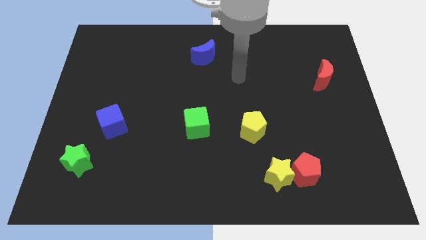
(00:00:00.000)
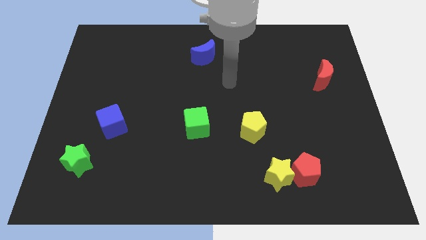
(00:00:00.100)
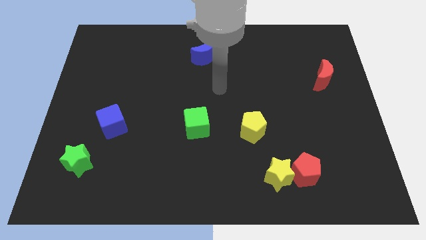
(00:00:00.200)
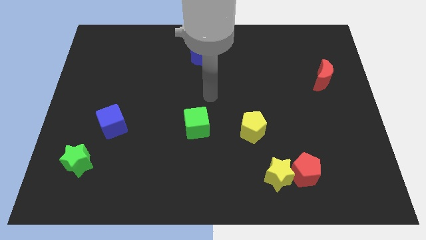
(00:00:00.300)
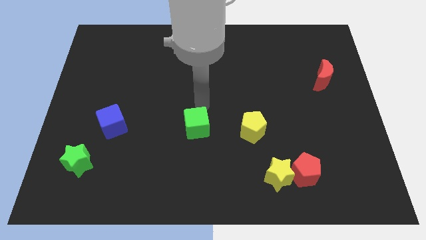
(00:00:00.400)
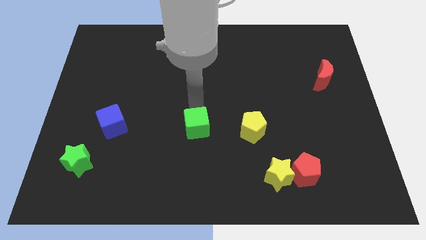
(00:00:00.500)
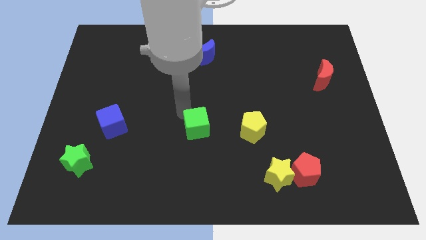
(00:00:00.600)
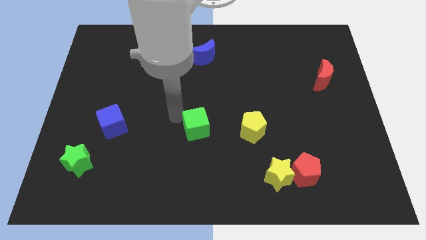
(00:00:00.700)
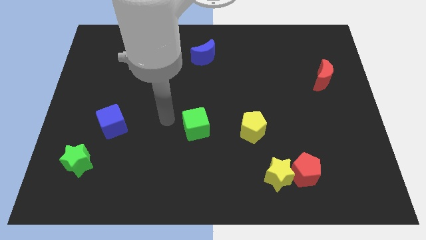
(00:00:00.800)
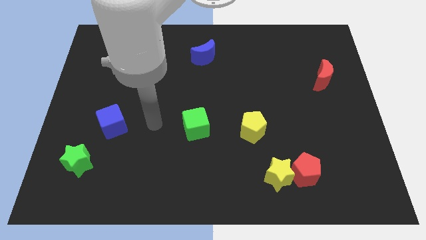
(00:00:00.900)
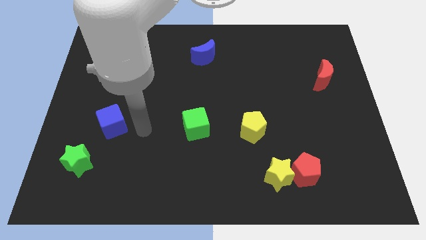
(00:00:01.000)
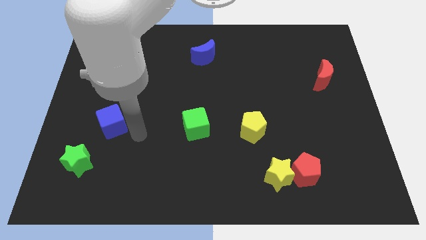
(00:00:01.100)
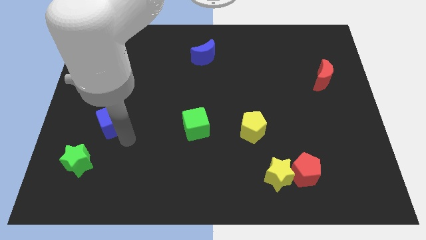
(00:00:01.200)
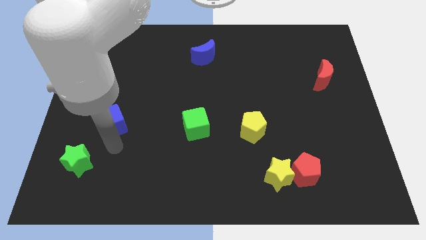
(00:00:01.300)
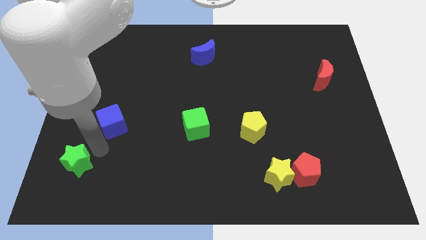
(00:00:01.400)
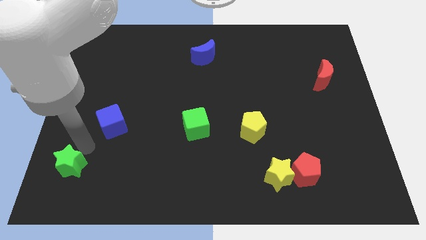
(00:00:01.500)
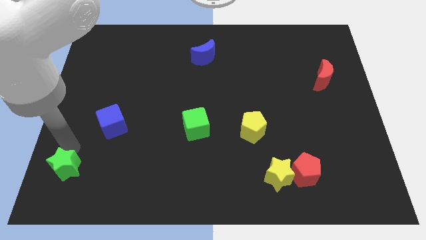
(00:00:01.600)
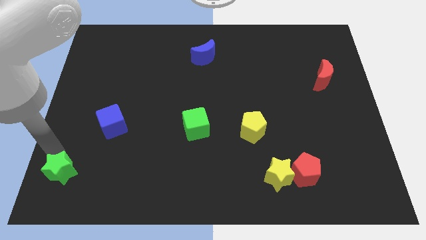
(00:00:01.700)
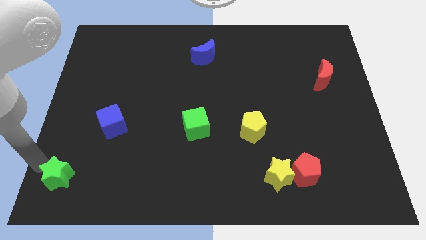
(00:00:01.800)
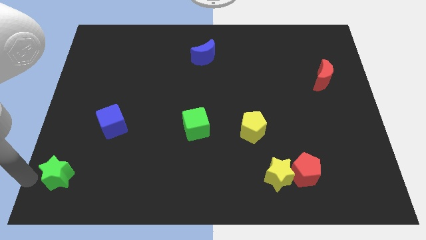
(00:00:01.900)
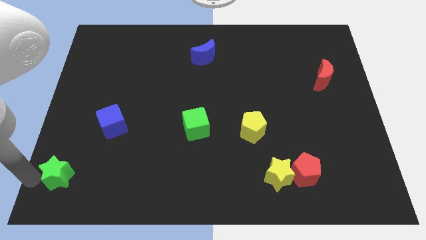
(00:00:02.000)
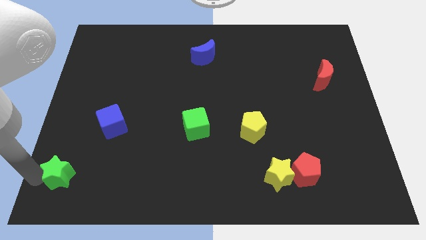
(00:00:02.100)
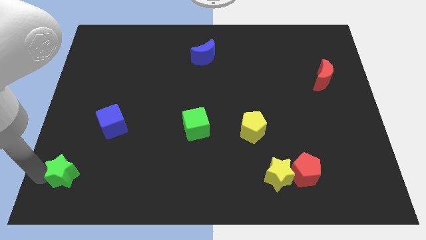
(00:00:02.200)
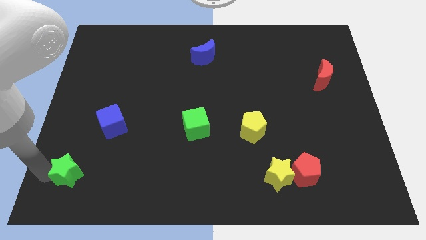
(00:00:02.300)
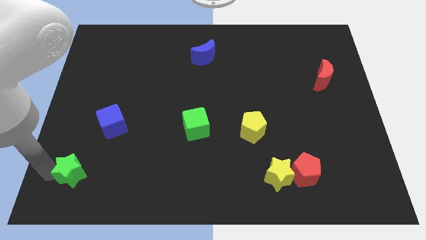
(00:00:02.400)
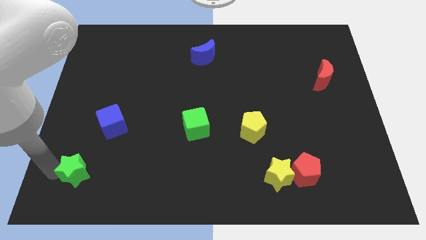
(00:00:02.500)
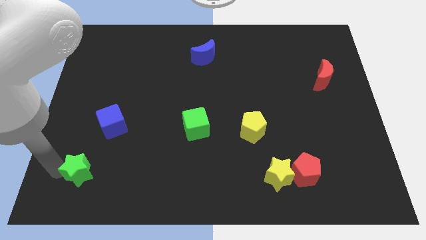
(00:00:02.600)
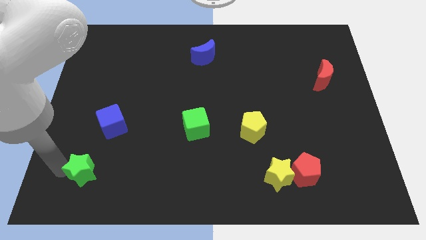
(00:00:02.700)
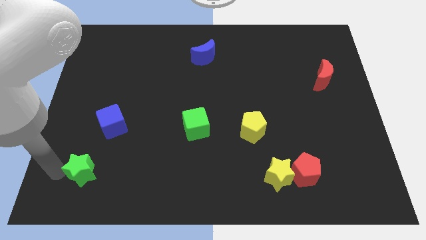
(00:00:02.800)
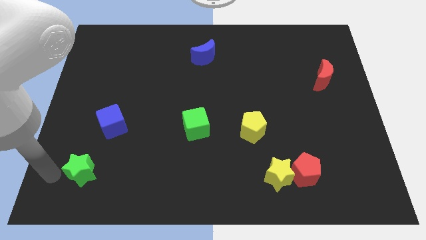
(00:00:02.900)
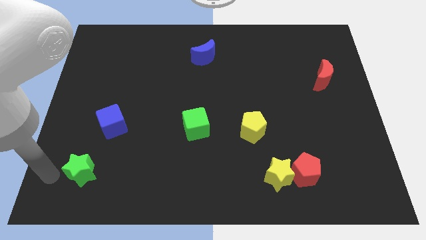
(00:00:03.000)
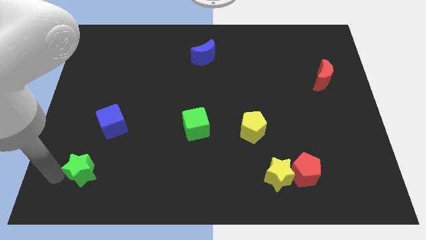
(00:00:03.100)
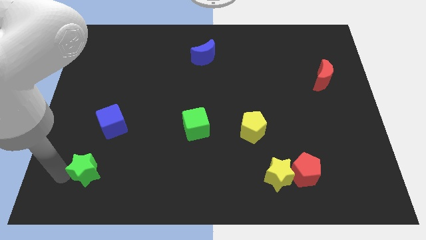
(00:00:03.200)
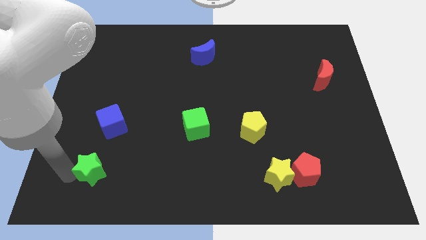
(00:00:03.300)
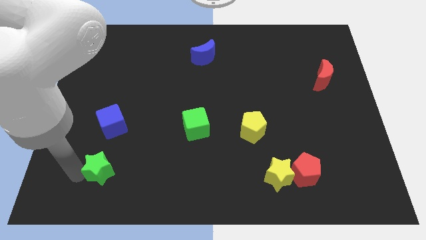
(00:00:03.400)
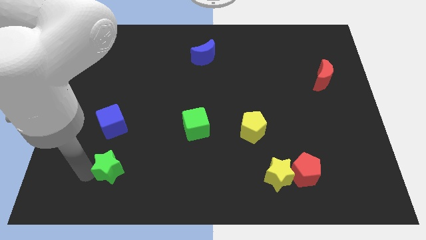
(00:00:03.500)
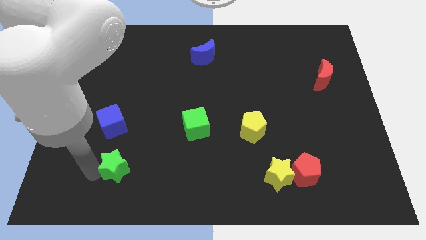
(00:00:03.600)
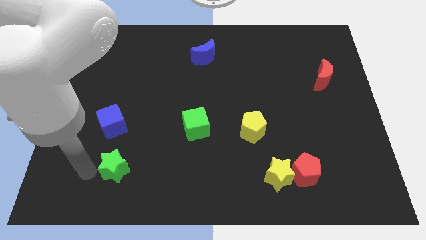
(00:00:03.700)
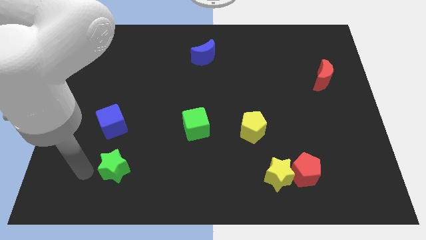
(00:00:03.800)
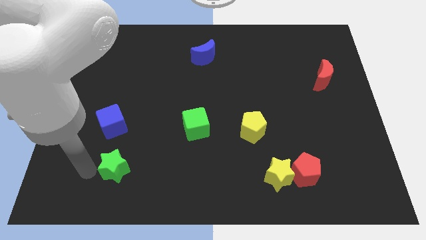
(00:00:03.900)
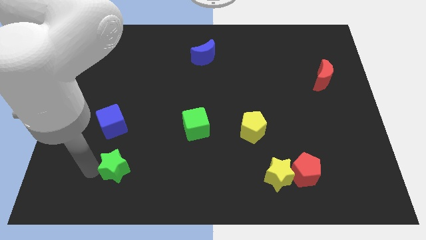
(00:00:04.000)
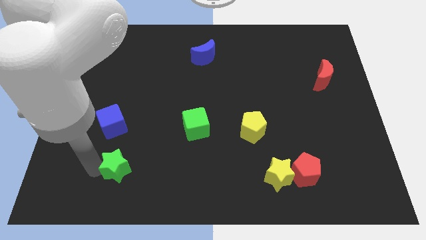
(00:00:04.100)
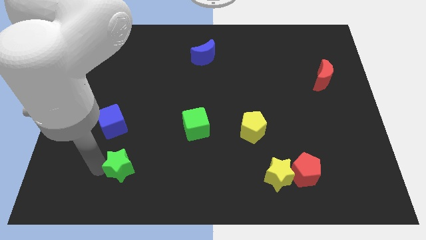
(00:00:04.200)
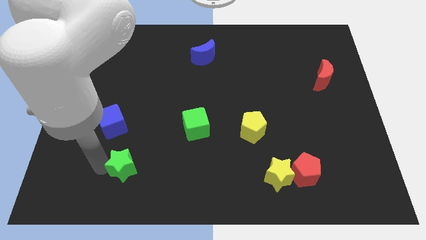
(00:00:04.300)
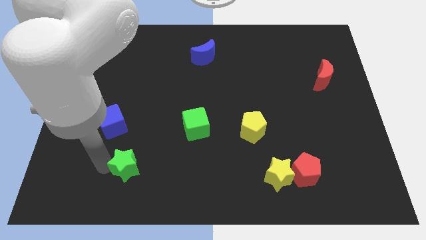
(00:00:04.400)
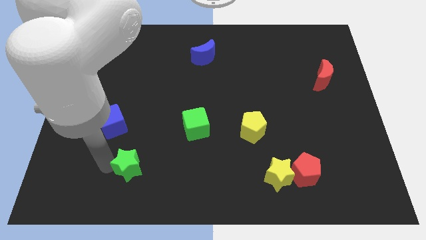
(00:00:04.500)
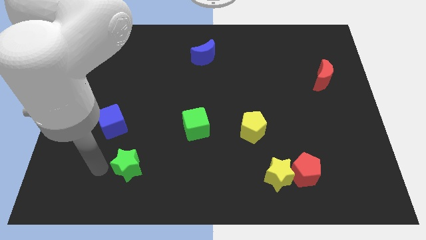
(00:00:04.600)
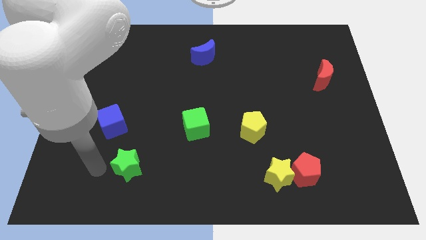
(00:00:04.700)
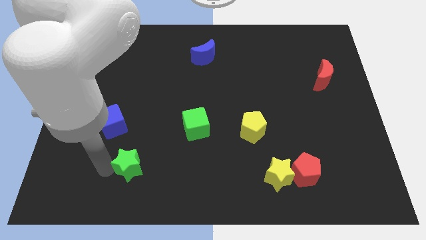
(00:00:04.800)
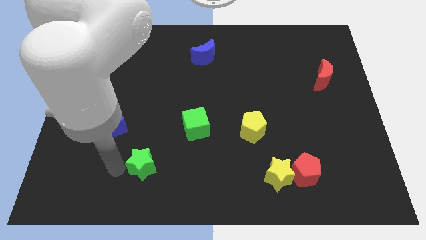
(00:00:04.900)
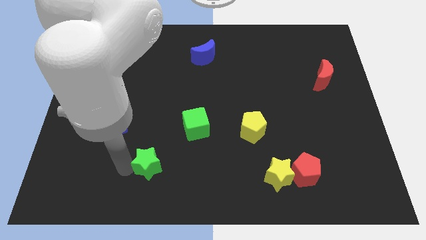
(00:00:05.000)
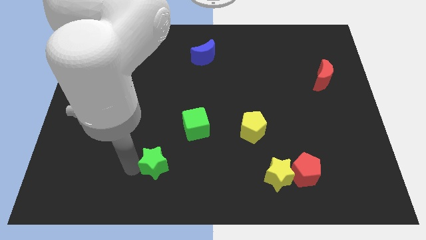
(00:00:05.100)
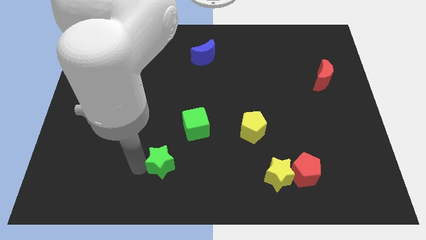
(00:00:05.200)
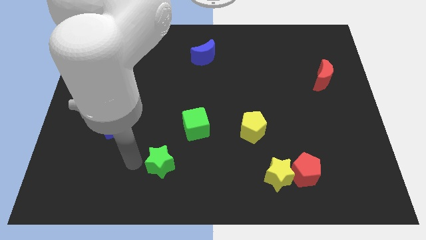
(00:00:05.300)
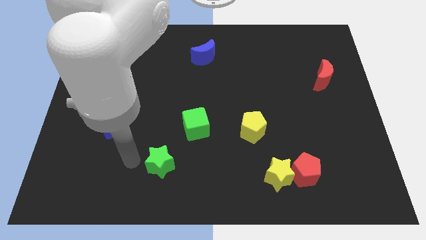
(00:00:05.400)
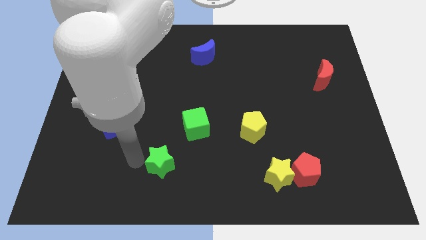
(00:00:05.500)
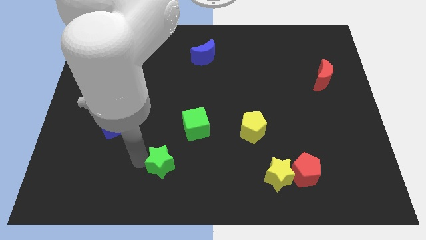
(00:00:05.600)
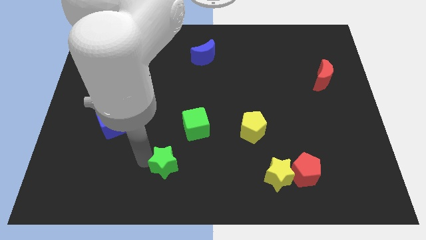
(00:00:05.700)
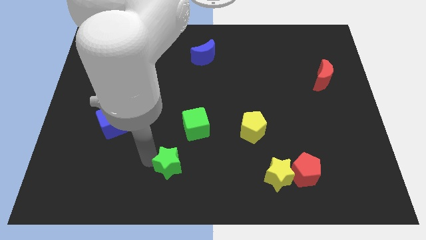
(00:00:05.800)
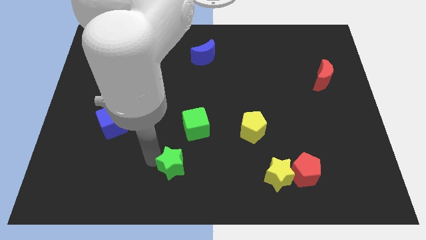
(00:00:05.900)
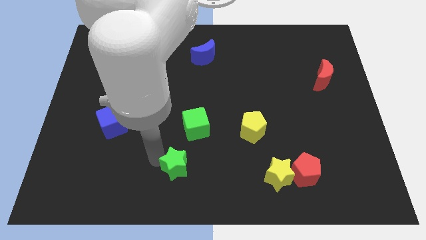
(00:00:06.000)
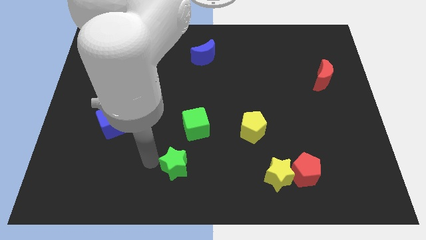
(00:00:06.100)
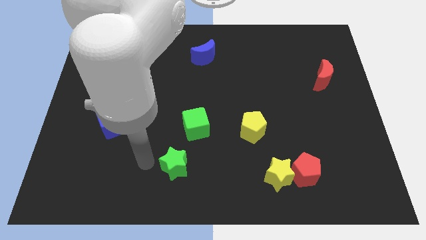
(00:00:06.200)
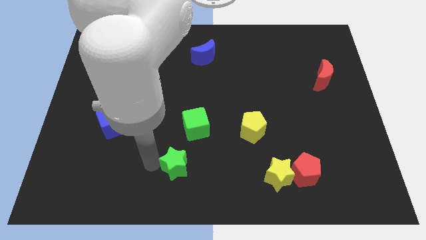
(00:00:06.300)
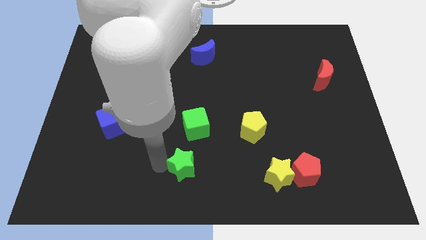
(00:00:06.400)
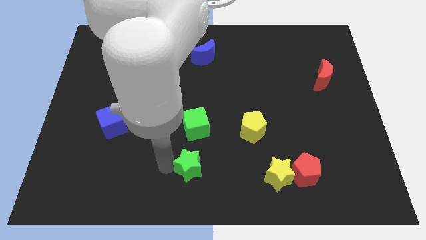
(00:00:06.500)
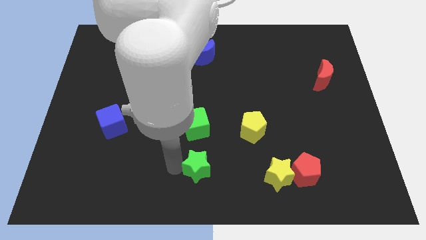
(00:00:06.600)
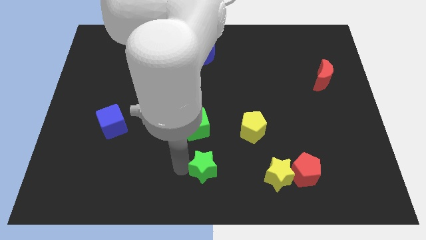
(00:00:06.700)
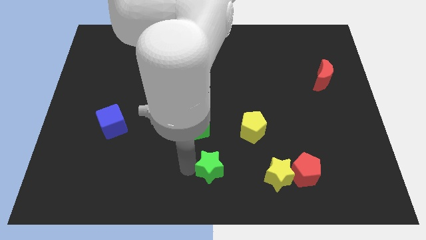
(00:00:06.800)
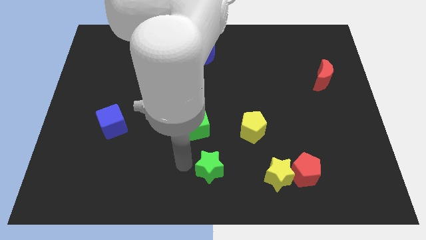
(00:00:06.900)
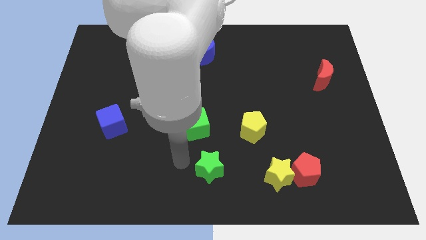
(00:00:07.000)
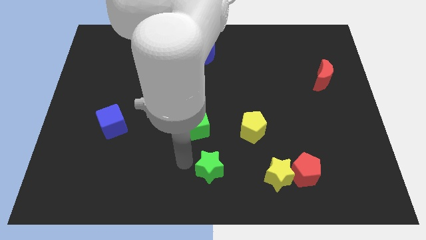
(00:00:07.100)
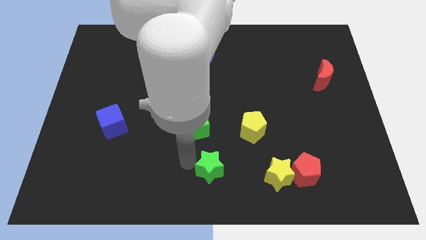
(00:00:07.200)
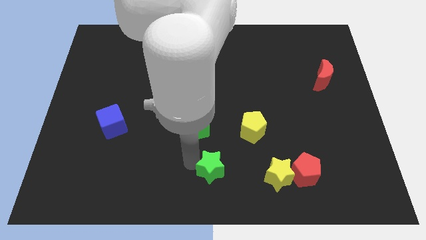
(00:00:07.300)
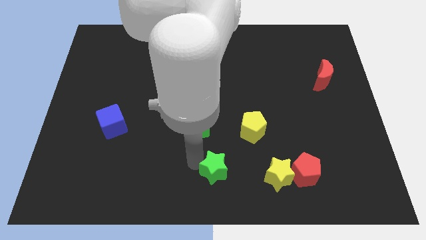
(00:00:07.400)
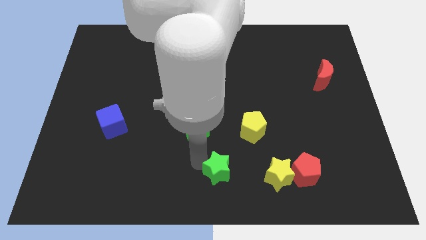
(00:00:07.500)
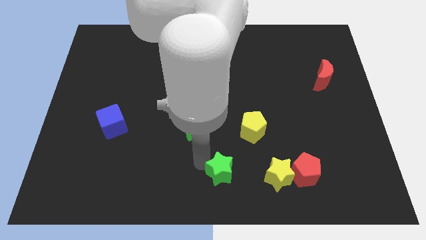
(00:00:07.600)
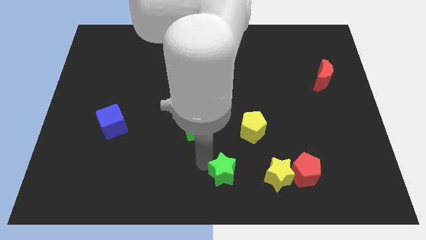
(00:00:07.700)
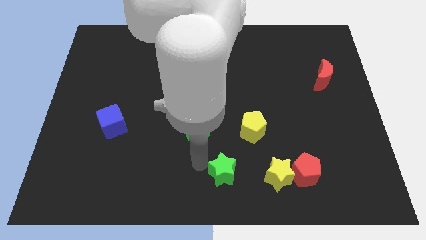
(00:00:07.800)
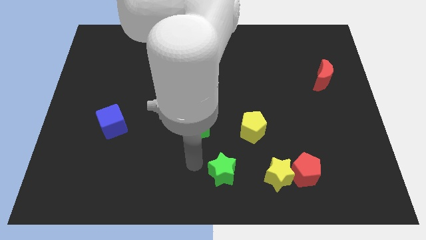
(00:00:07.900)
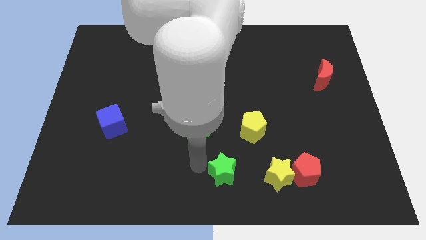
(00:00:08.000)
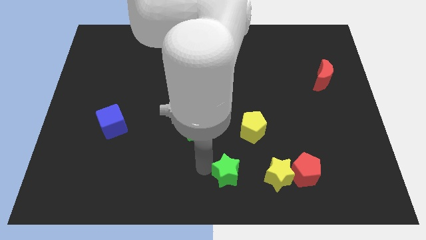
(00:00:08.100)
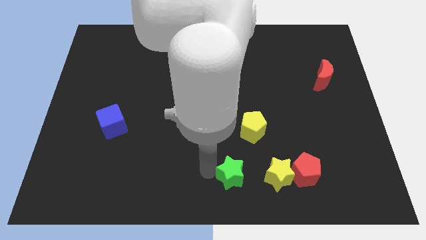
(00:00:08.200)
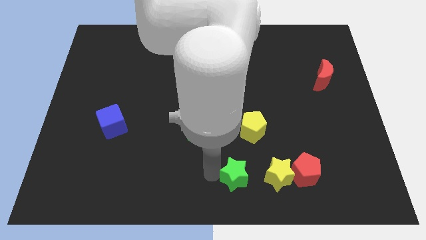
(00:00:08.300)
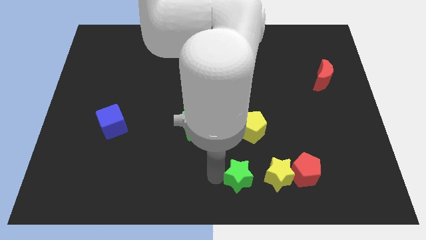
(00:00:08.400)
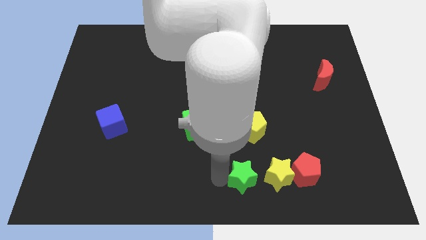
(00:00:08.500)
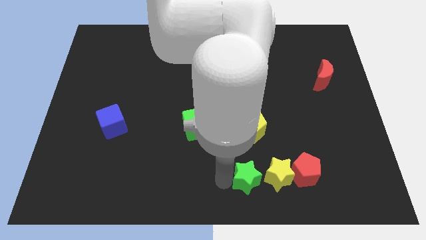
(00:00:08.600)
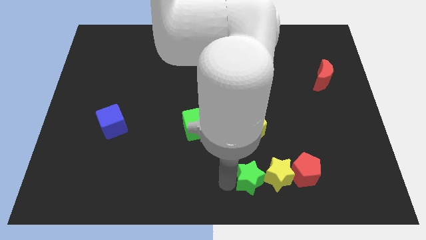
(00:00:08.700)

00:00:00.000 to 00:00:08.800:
slide the green star close to the yellow star
